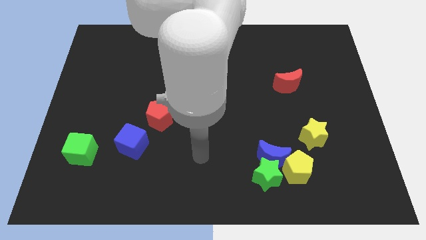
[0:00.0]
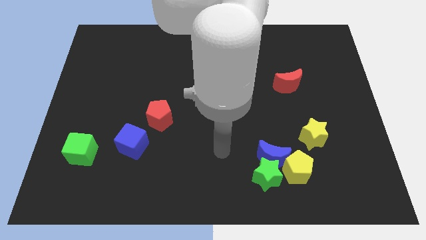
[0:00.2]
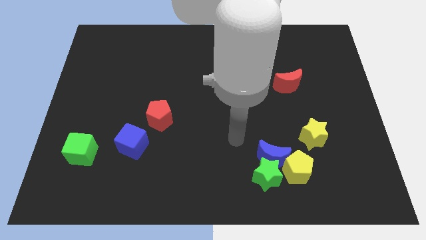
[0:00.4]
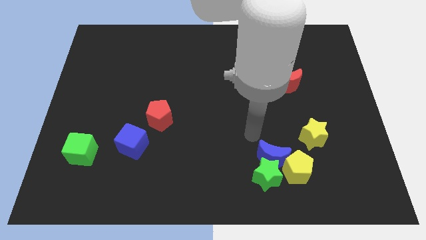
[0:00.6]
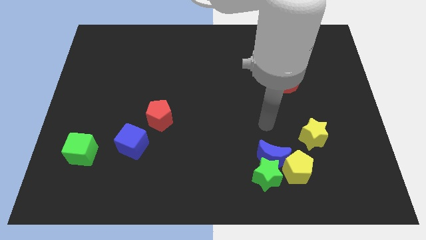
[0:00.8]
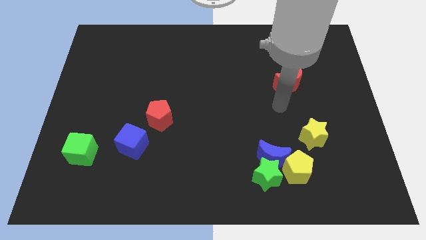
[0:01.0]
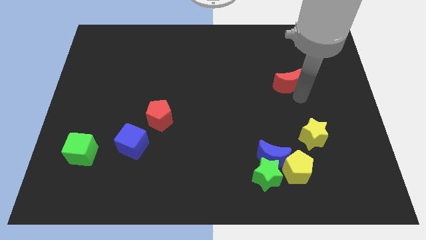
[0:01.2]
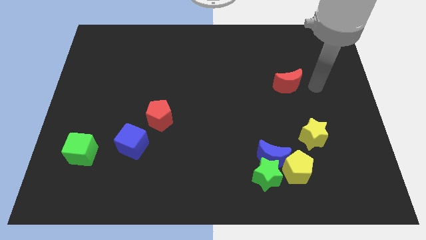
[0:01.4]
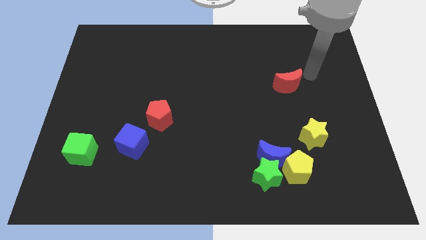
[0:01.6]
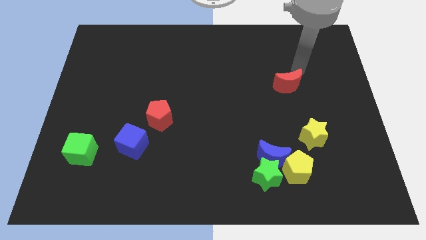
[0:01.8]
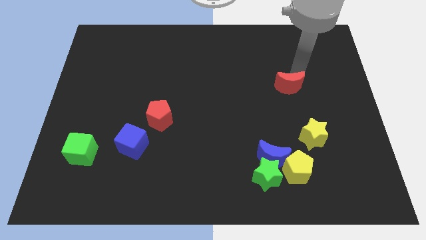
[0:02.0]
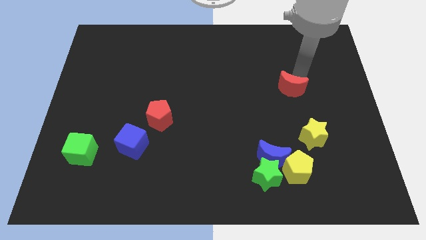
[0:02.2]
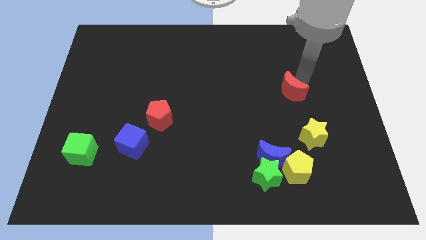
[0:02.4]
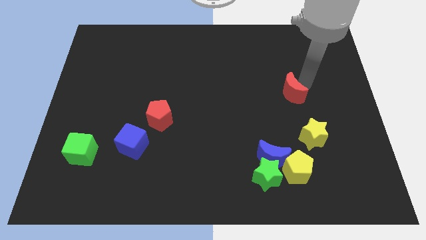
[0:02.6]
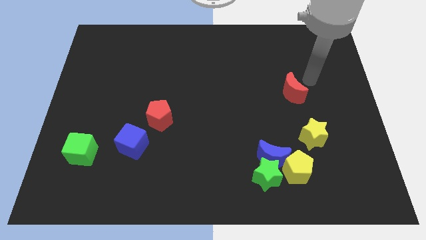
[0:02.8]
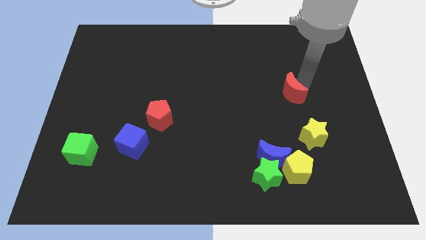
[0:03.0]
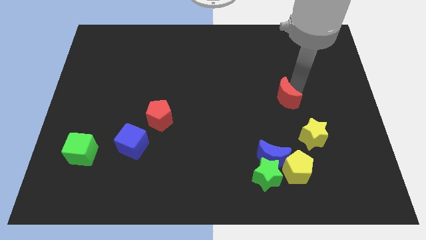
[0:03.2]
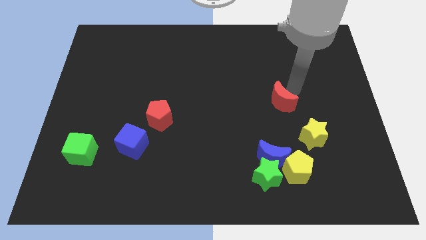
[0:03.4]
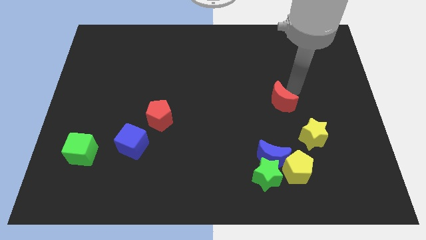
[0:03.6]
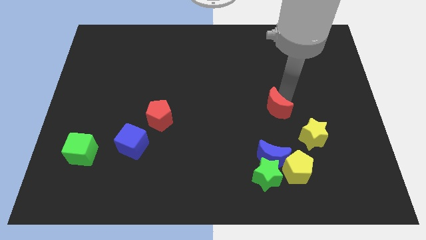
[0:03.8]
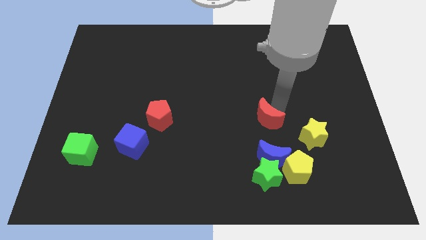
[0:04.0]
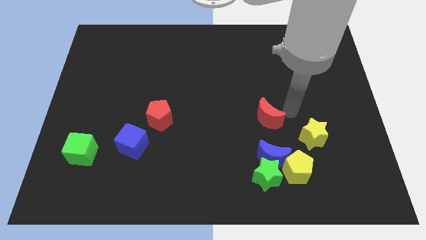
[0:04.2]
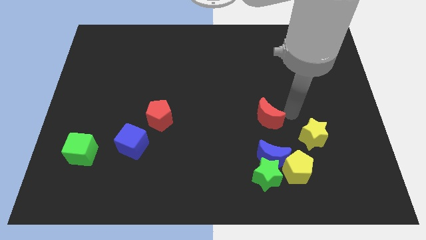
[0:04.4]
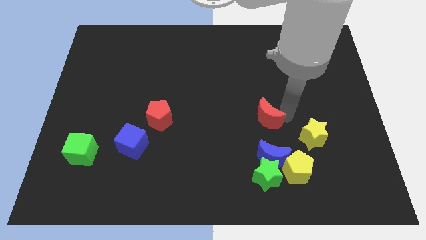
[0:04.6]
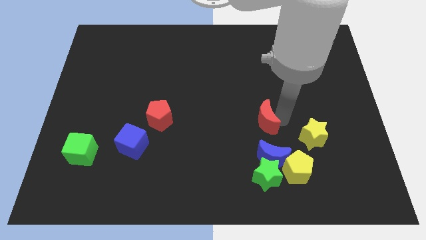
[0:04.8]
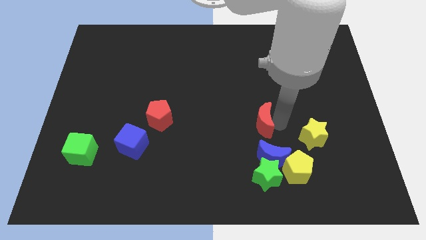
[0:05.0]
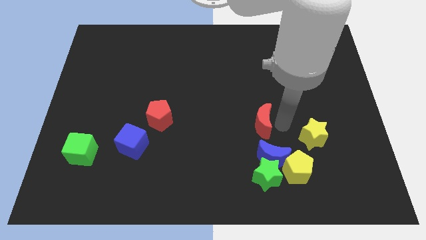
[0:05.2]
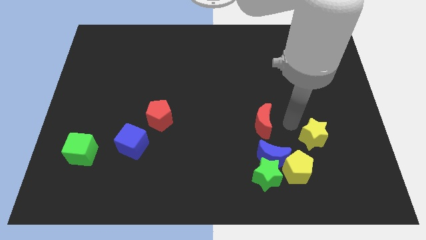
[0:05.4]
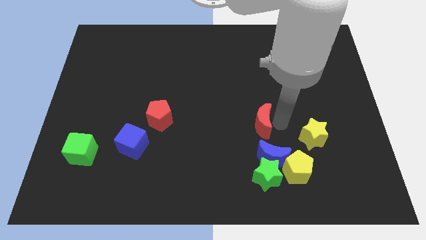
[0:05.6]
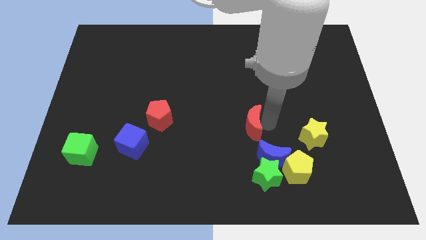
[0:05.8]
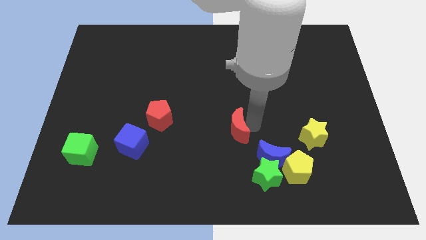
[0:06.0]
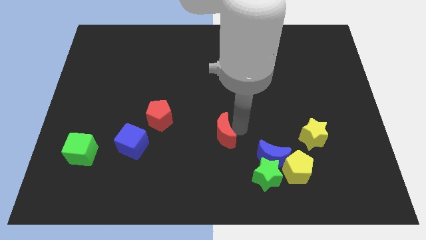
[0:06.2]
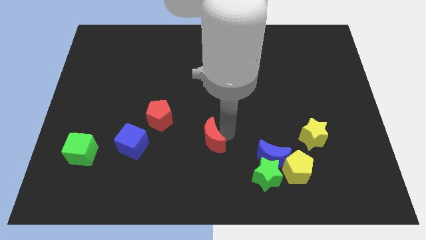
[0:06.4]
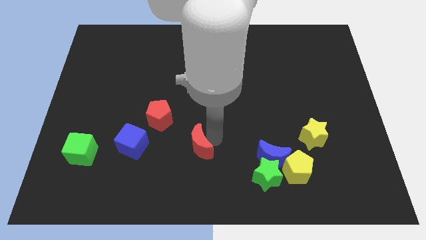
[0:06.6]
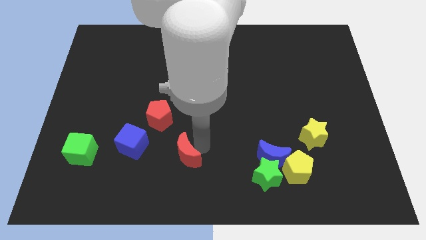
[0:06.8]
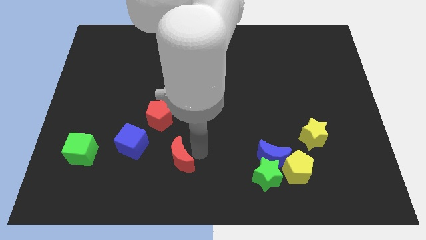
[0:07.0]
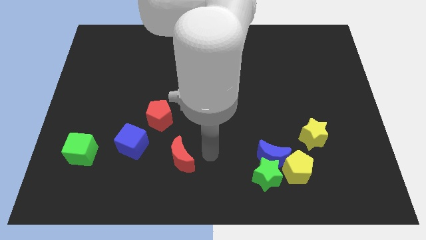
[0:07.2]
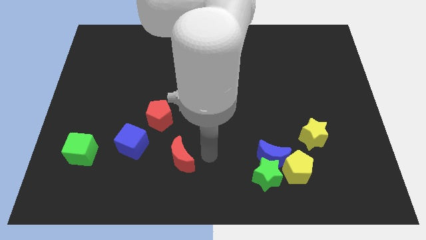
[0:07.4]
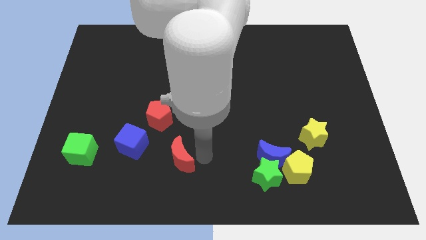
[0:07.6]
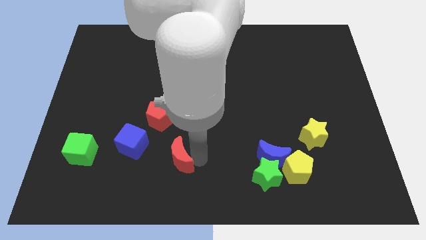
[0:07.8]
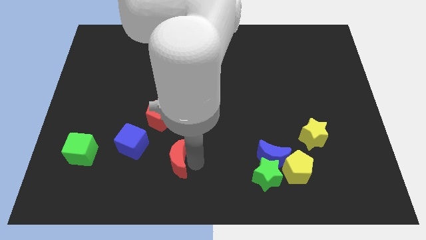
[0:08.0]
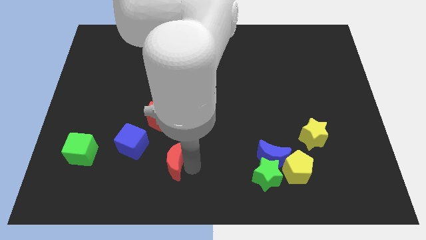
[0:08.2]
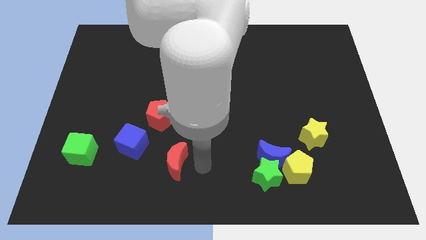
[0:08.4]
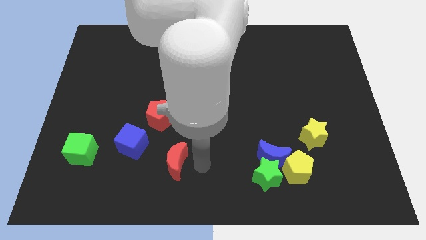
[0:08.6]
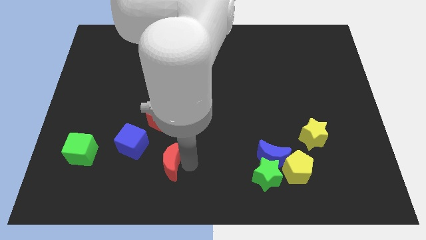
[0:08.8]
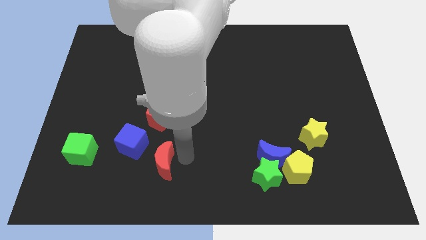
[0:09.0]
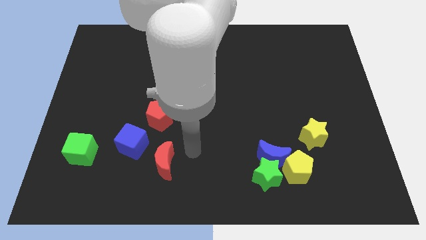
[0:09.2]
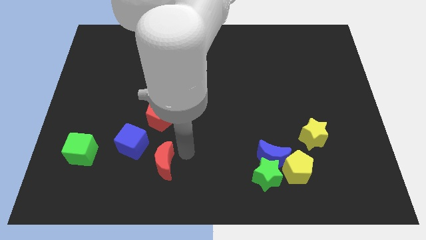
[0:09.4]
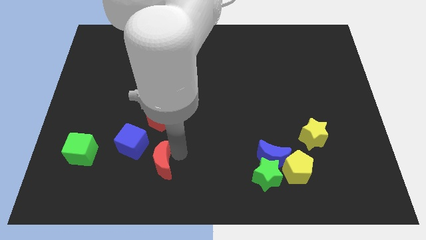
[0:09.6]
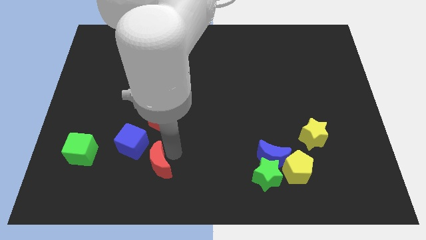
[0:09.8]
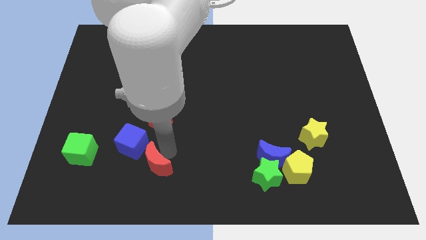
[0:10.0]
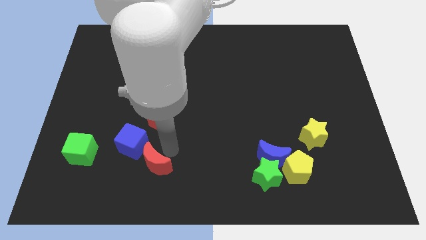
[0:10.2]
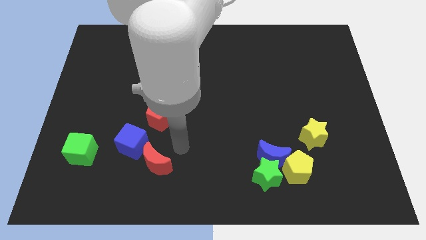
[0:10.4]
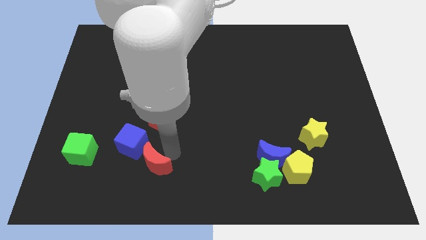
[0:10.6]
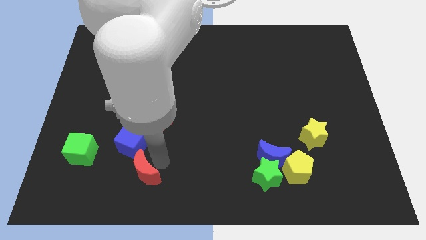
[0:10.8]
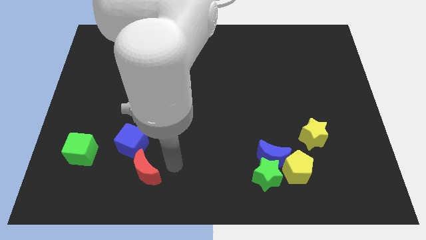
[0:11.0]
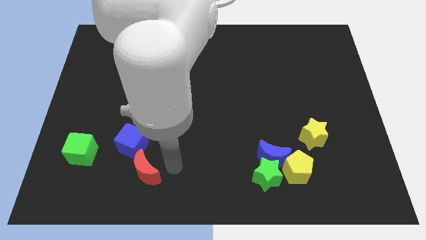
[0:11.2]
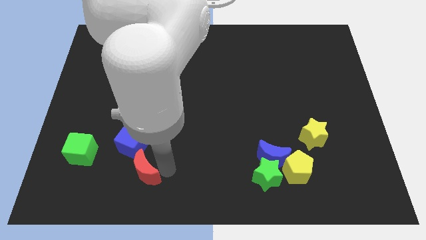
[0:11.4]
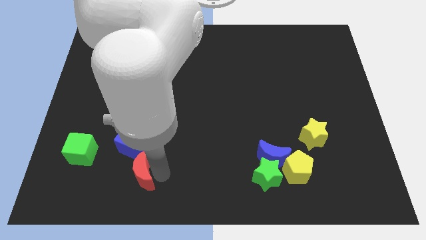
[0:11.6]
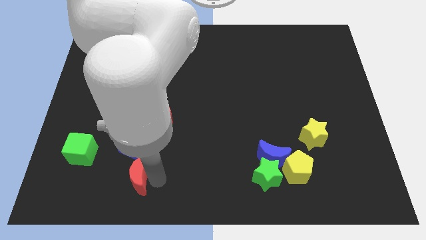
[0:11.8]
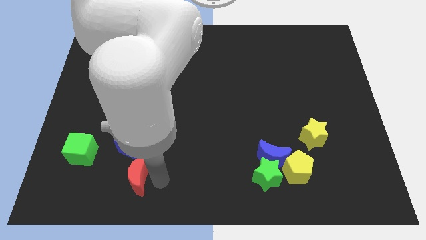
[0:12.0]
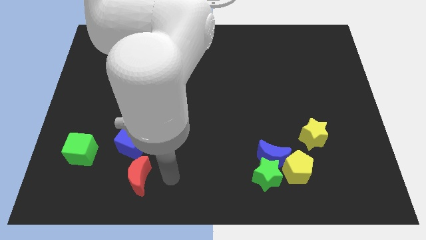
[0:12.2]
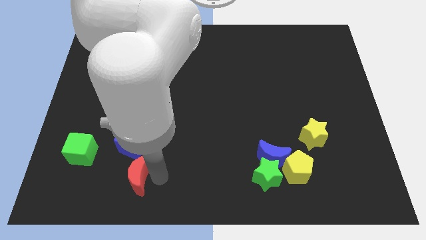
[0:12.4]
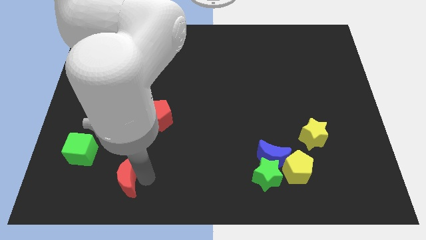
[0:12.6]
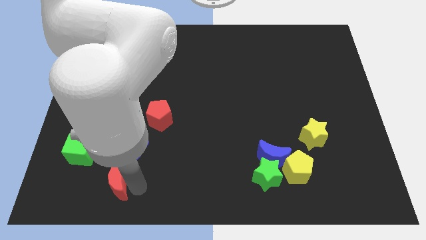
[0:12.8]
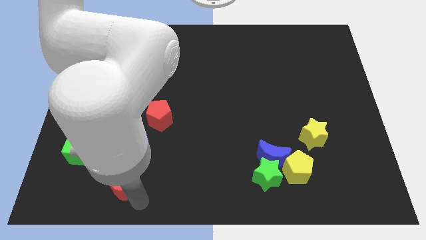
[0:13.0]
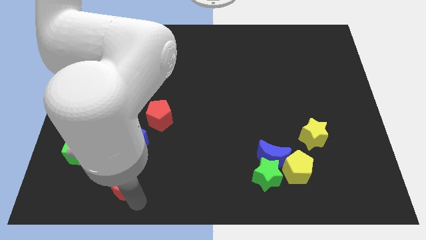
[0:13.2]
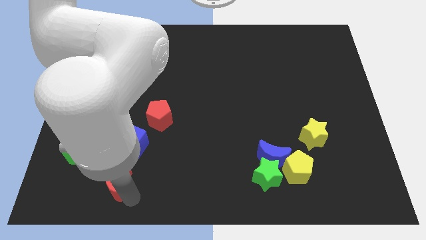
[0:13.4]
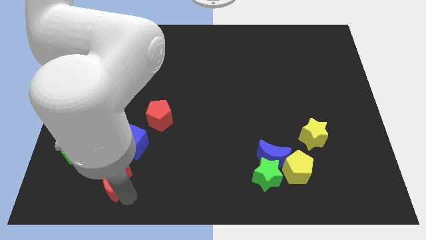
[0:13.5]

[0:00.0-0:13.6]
move the red moon diagonally down and to the left of the blue cube

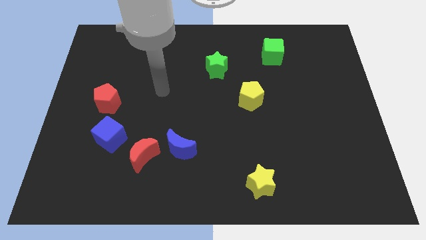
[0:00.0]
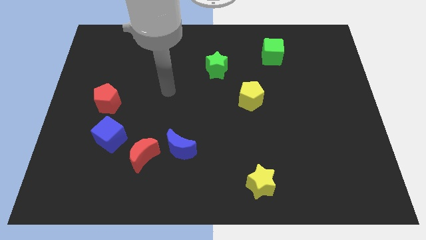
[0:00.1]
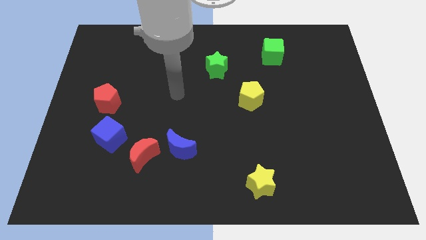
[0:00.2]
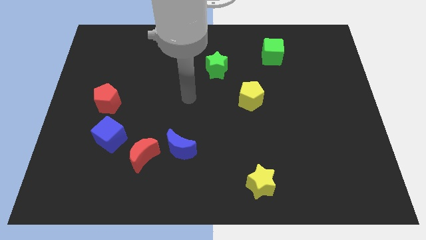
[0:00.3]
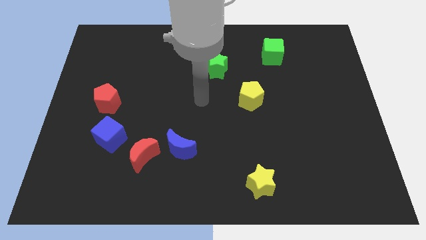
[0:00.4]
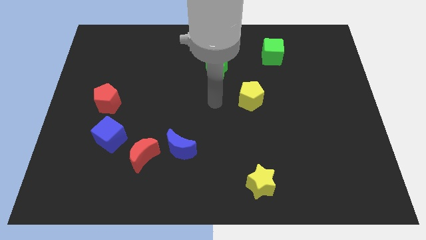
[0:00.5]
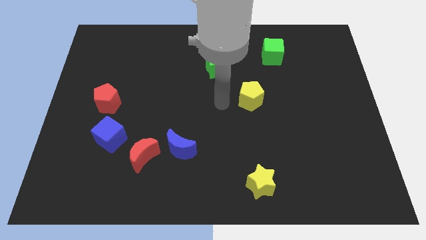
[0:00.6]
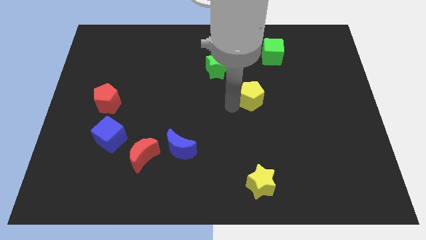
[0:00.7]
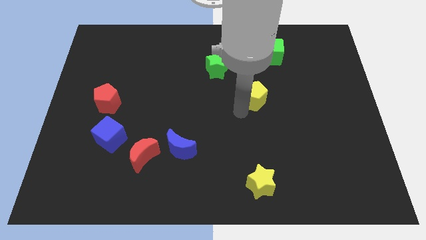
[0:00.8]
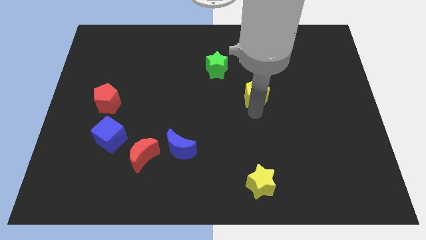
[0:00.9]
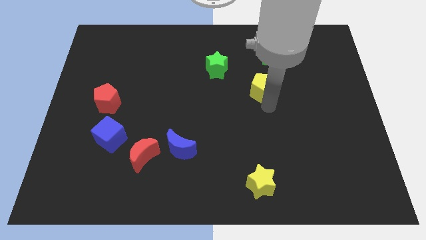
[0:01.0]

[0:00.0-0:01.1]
put the green cube to the top of the yellow pentagon
